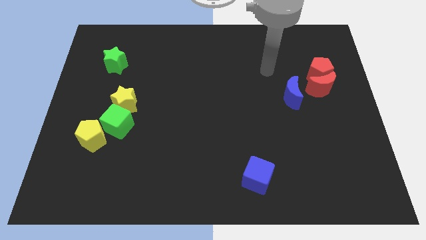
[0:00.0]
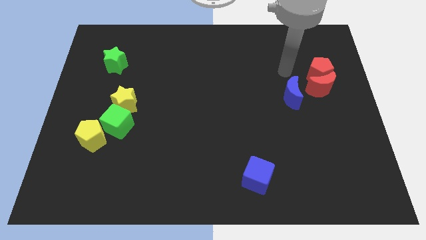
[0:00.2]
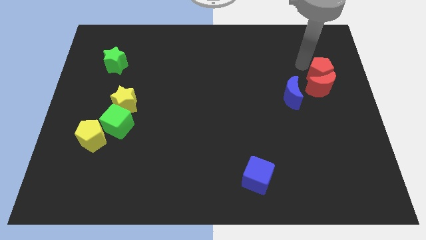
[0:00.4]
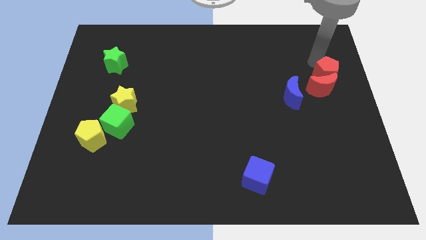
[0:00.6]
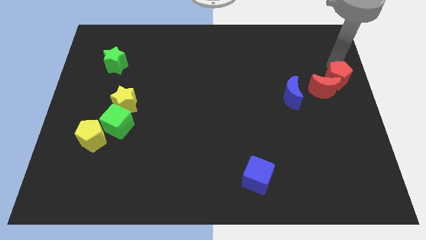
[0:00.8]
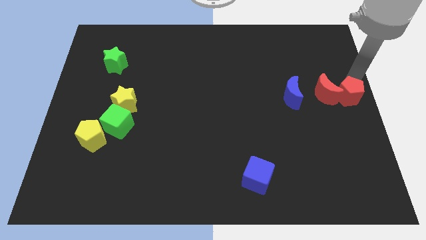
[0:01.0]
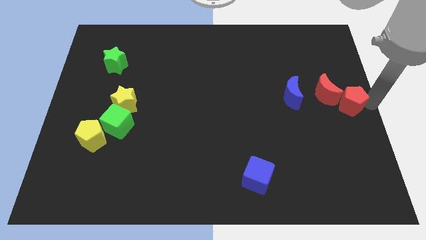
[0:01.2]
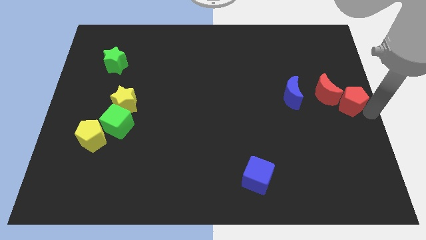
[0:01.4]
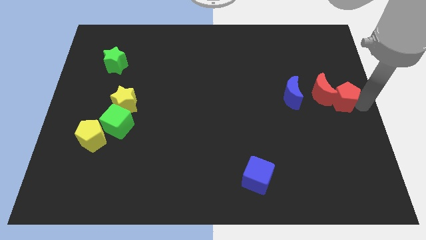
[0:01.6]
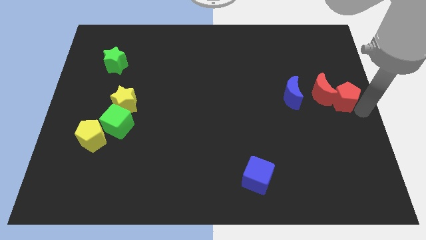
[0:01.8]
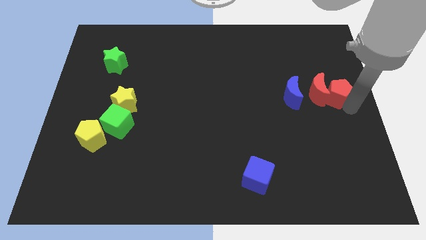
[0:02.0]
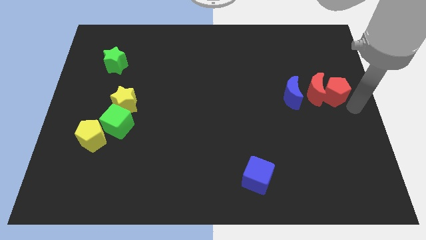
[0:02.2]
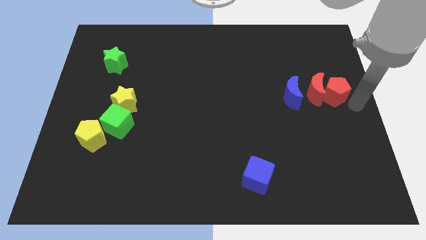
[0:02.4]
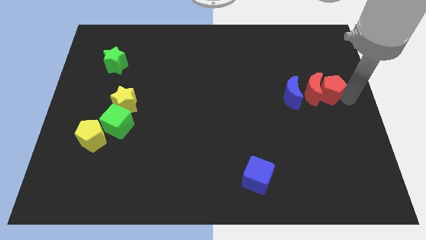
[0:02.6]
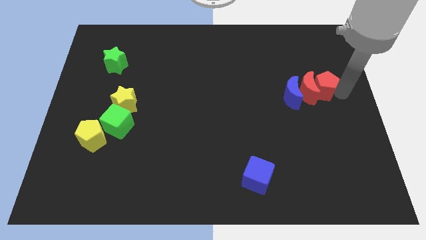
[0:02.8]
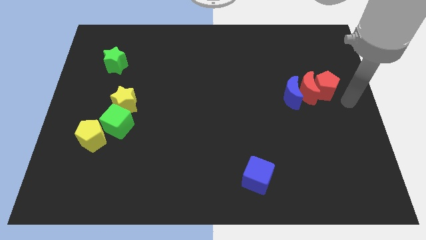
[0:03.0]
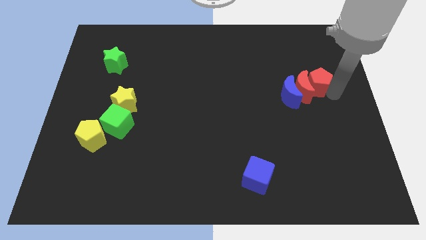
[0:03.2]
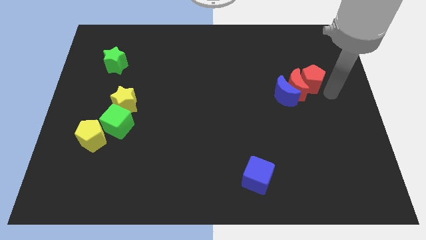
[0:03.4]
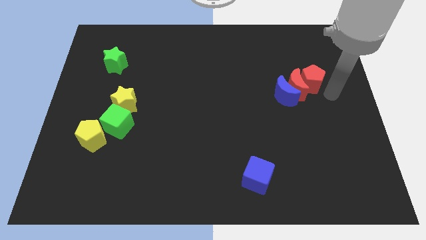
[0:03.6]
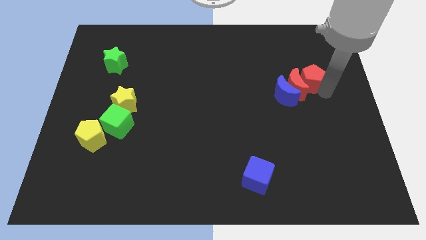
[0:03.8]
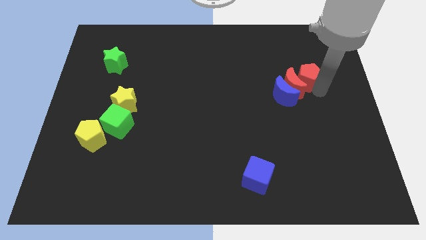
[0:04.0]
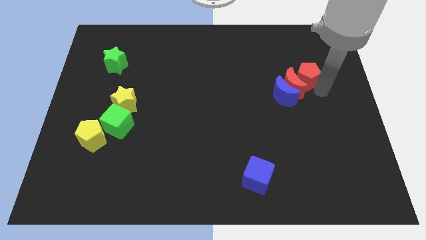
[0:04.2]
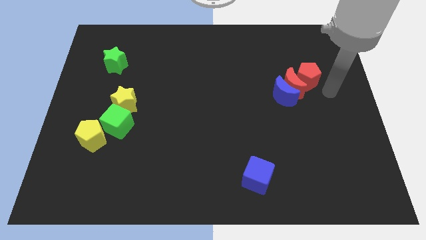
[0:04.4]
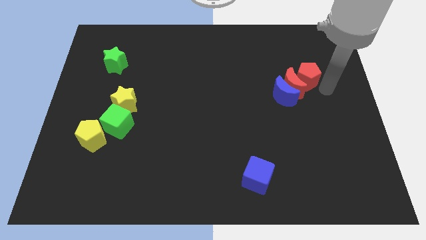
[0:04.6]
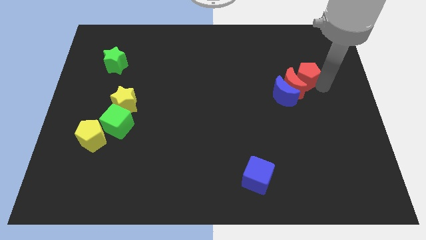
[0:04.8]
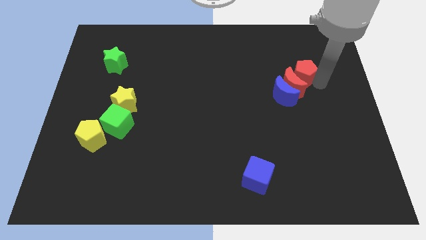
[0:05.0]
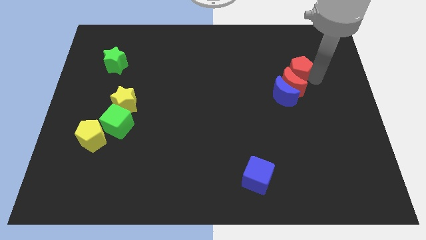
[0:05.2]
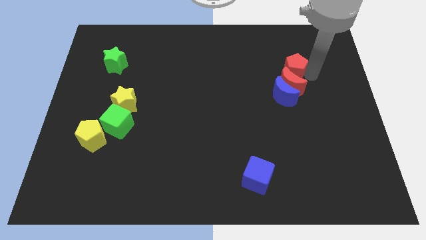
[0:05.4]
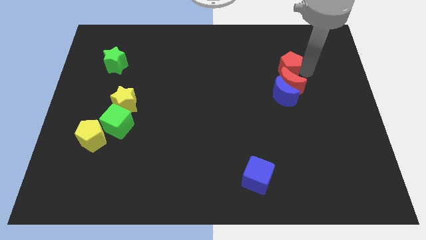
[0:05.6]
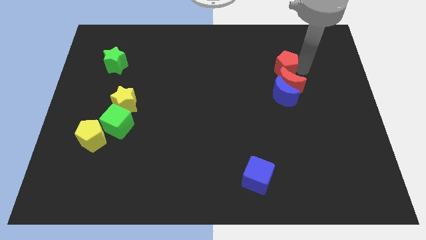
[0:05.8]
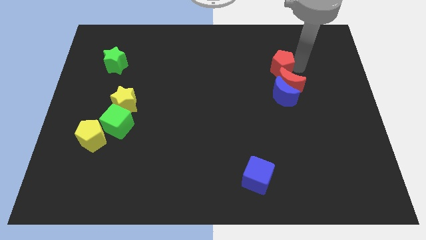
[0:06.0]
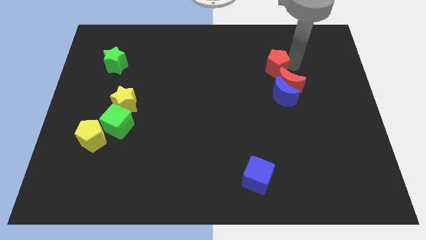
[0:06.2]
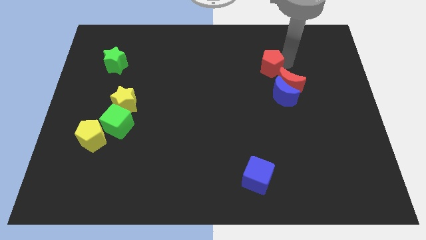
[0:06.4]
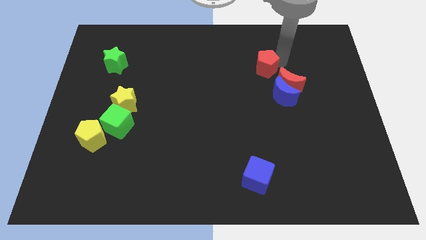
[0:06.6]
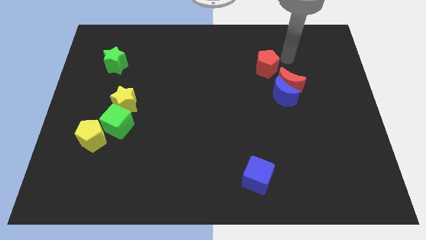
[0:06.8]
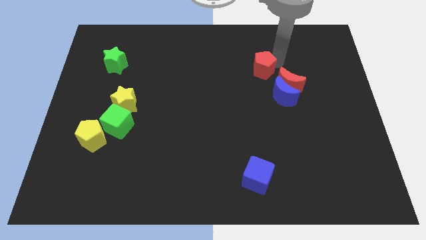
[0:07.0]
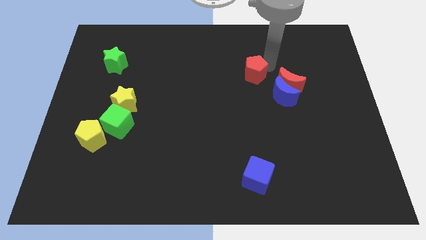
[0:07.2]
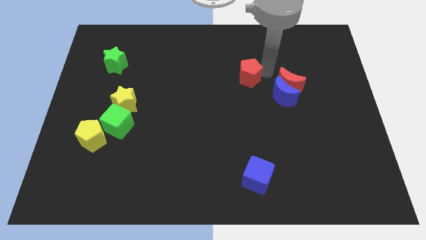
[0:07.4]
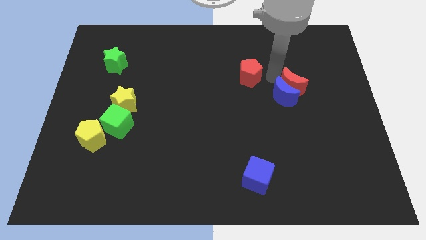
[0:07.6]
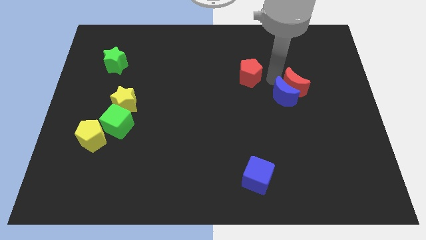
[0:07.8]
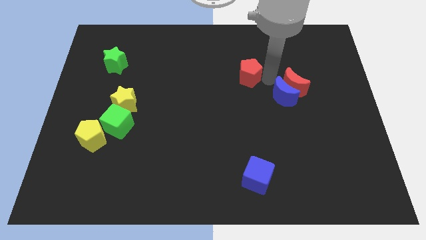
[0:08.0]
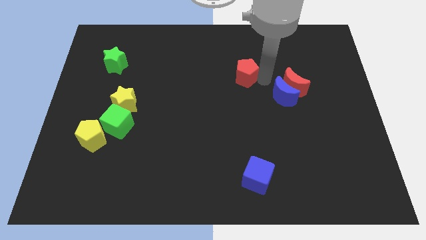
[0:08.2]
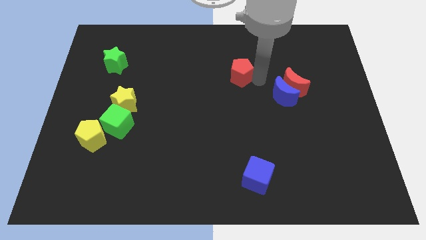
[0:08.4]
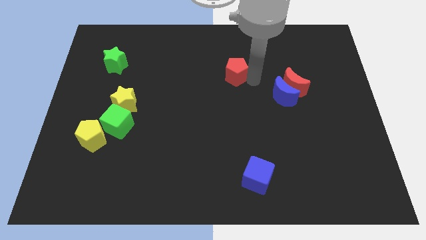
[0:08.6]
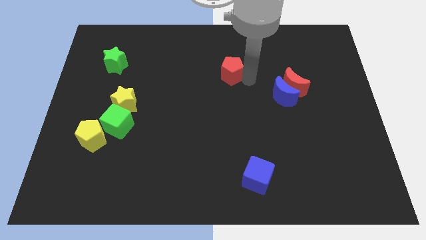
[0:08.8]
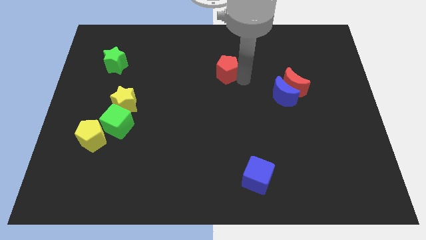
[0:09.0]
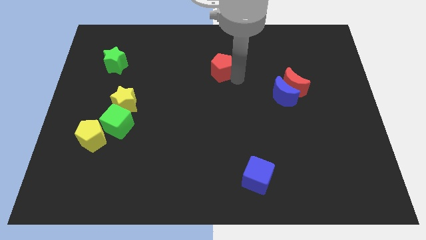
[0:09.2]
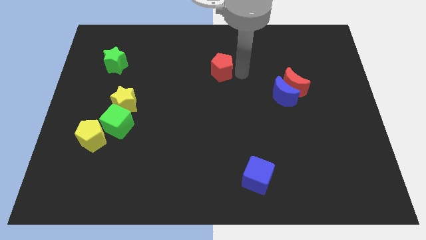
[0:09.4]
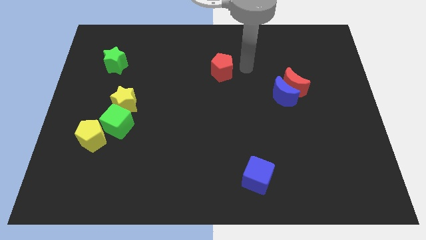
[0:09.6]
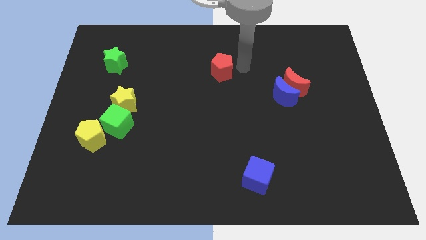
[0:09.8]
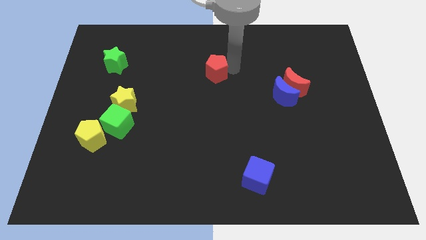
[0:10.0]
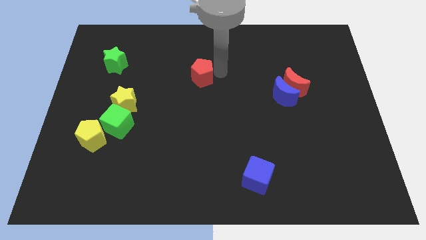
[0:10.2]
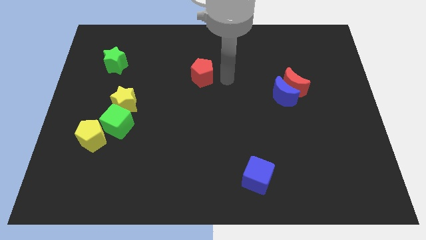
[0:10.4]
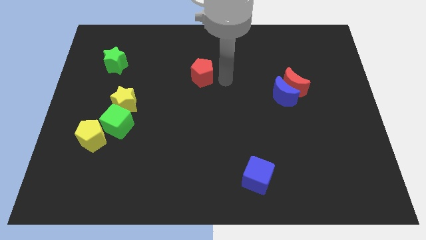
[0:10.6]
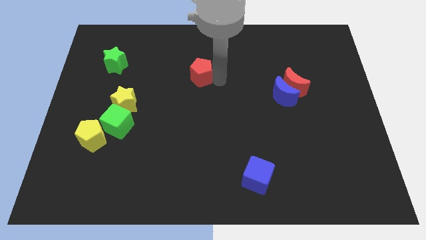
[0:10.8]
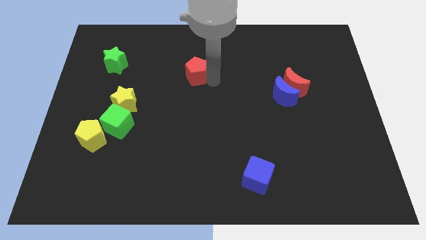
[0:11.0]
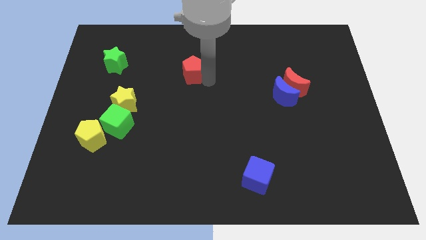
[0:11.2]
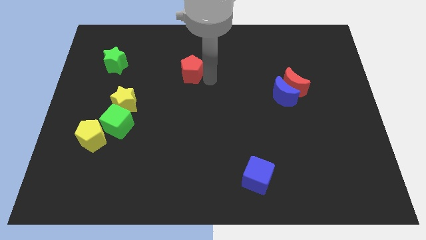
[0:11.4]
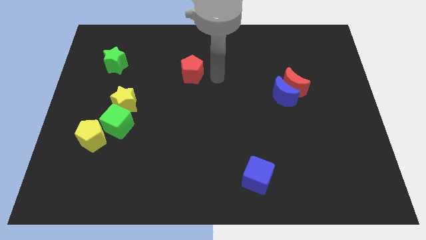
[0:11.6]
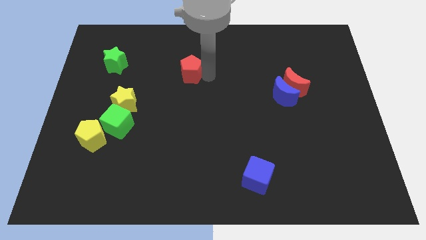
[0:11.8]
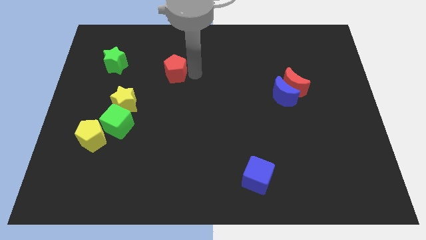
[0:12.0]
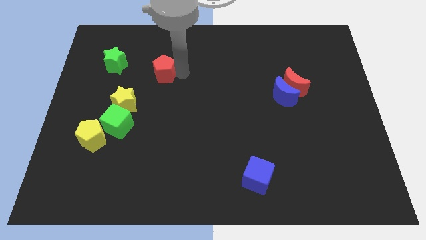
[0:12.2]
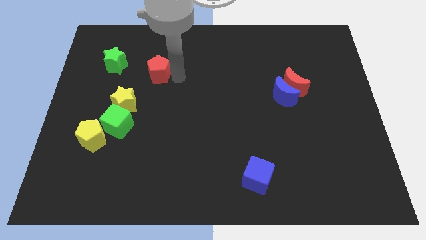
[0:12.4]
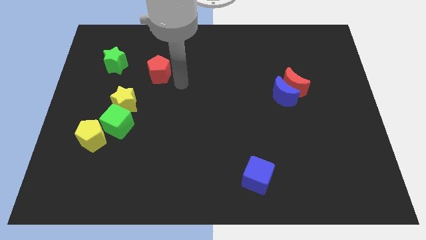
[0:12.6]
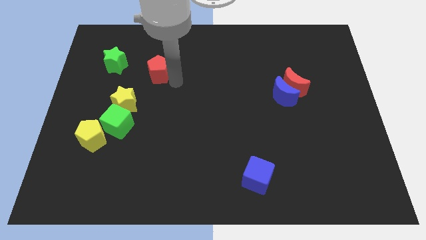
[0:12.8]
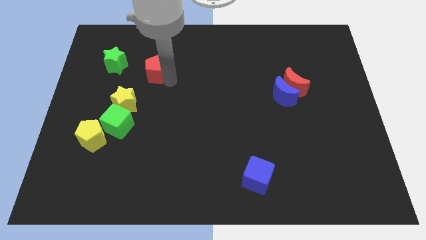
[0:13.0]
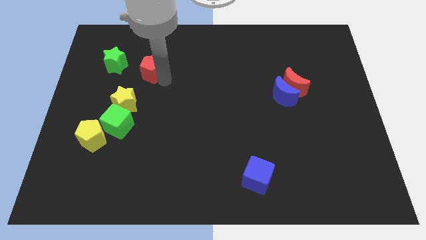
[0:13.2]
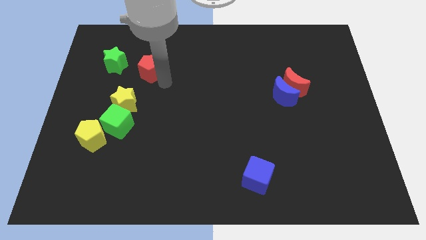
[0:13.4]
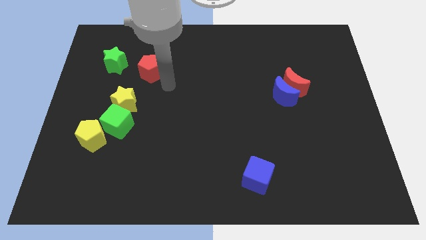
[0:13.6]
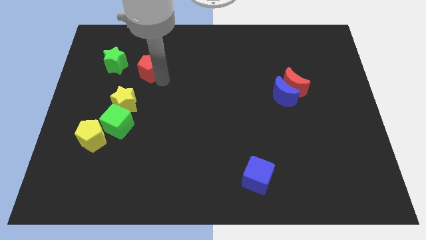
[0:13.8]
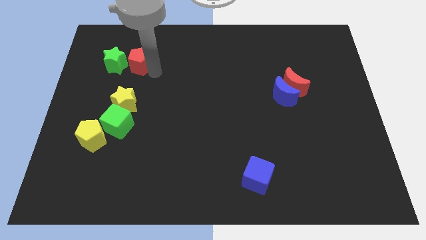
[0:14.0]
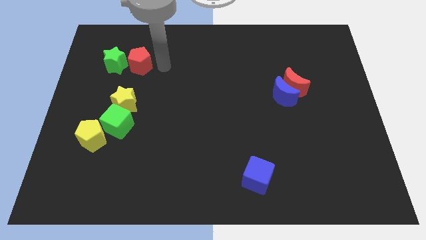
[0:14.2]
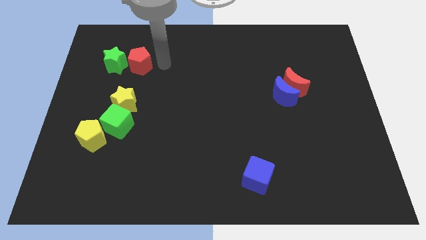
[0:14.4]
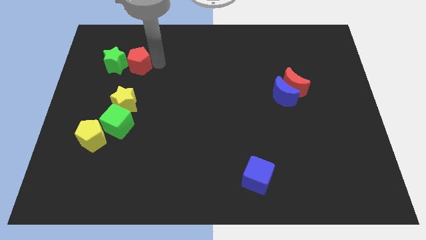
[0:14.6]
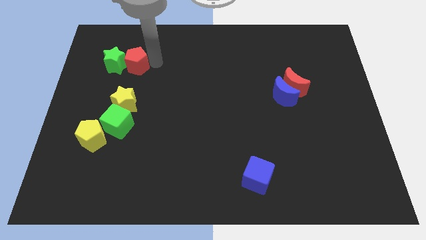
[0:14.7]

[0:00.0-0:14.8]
slide the red pentagon towards the green star

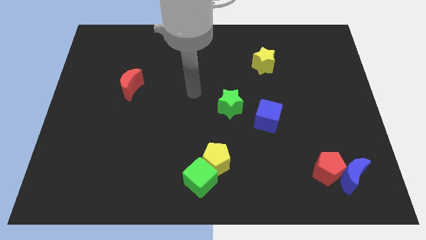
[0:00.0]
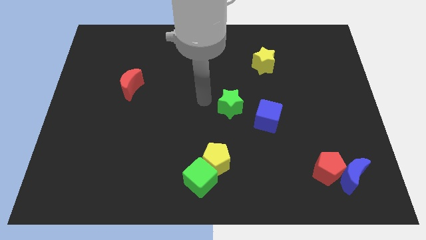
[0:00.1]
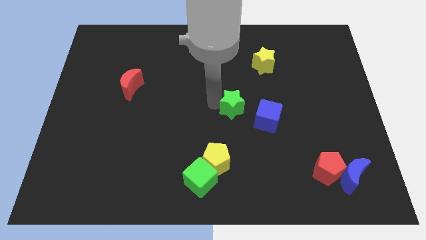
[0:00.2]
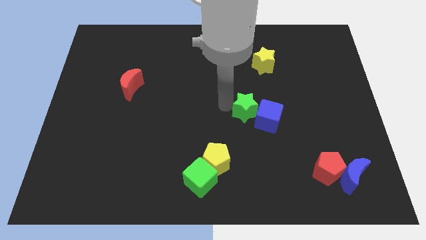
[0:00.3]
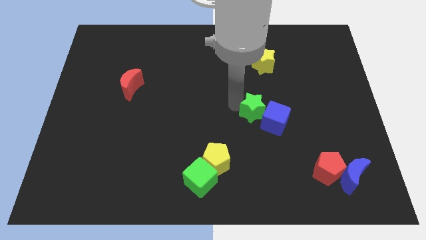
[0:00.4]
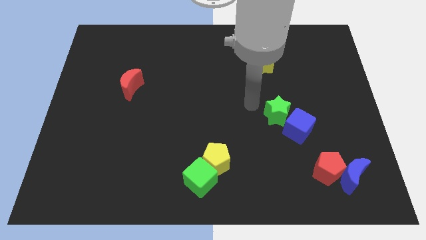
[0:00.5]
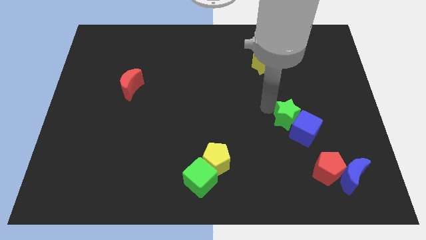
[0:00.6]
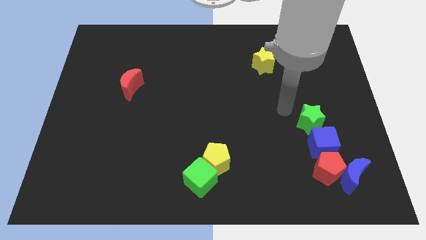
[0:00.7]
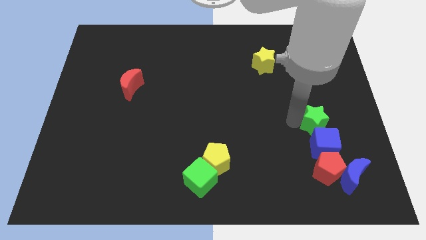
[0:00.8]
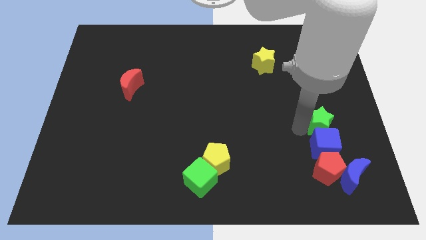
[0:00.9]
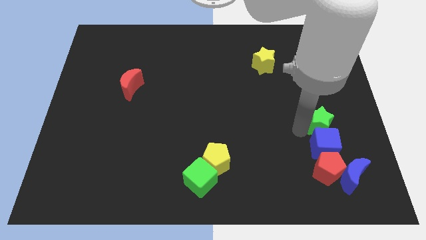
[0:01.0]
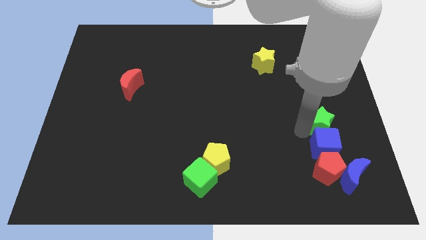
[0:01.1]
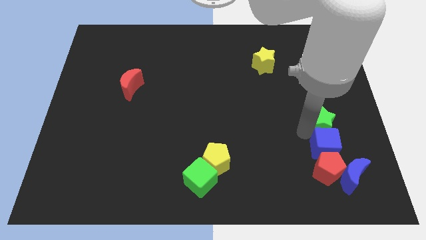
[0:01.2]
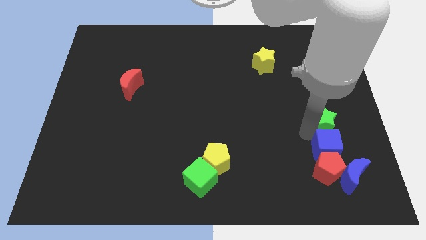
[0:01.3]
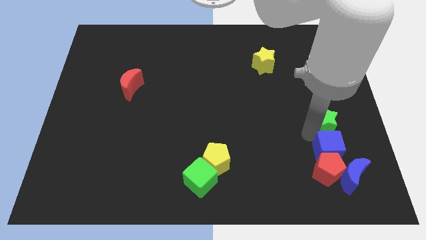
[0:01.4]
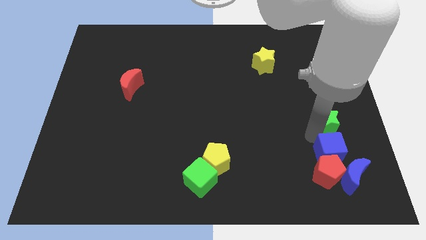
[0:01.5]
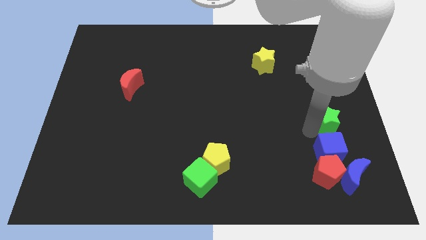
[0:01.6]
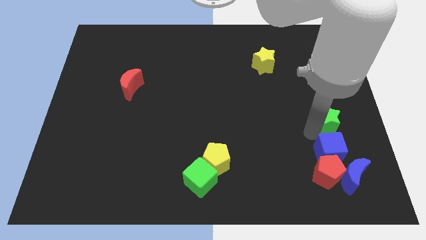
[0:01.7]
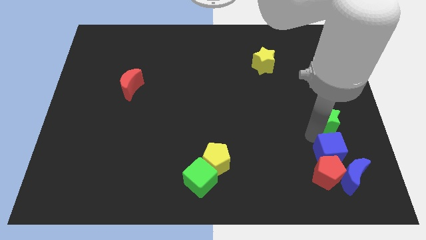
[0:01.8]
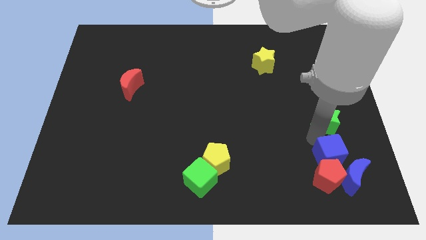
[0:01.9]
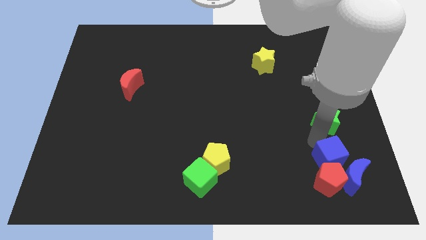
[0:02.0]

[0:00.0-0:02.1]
move the blue cube to the blue moon
